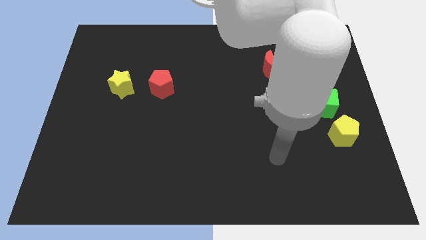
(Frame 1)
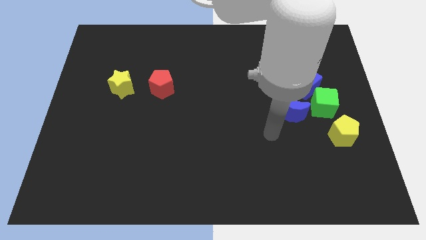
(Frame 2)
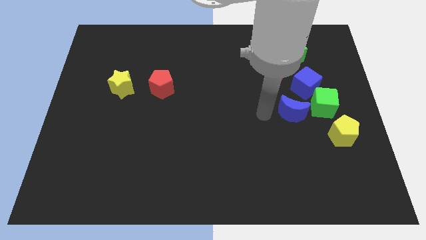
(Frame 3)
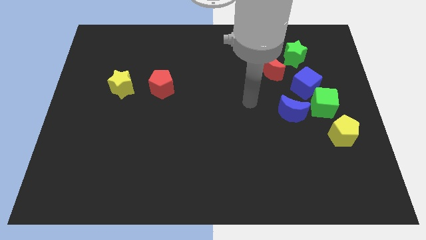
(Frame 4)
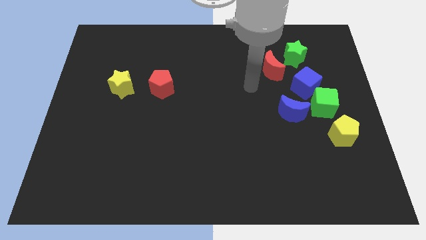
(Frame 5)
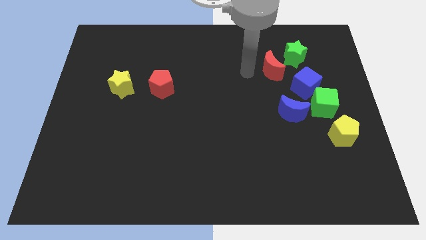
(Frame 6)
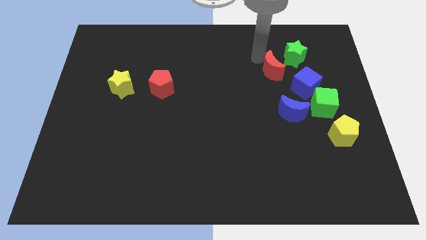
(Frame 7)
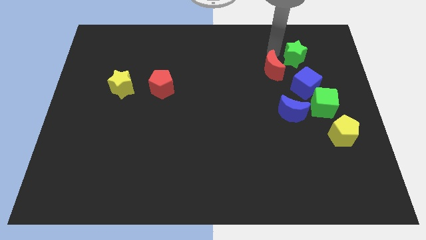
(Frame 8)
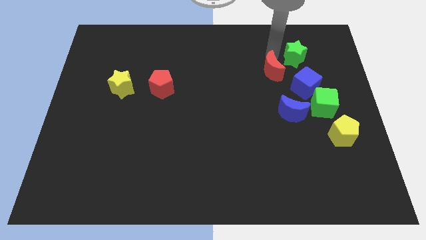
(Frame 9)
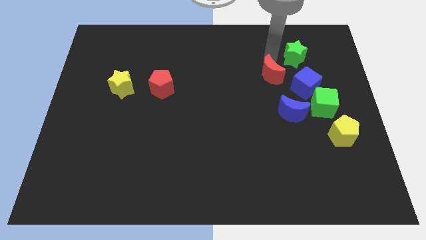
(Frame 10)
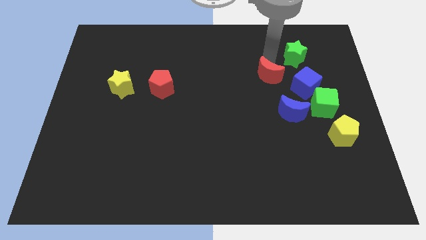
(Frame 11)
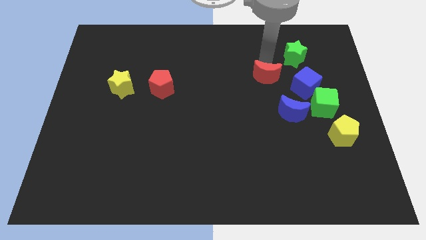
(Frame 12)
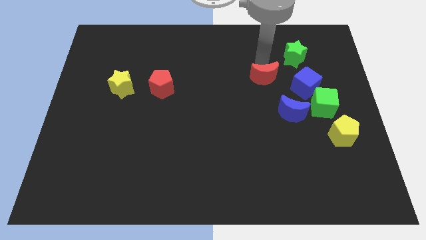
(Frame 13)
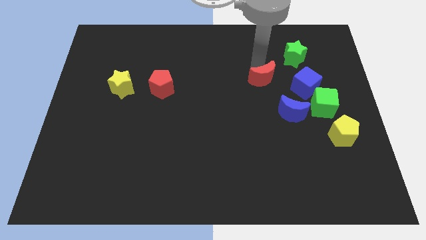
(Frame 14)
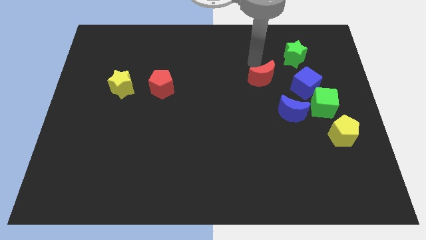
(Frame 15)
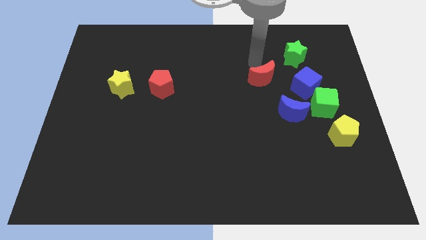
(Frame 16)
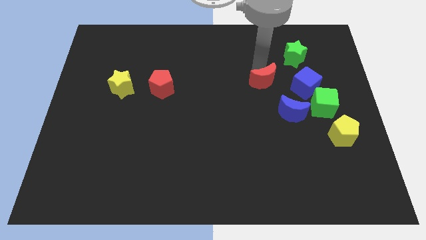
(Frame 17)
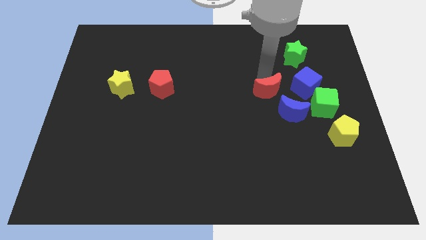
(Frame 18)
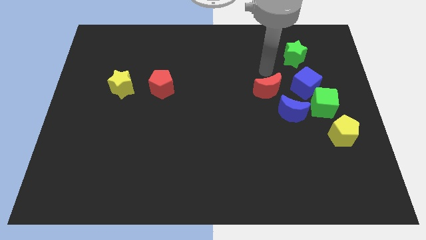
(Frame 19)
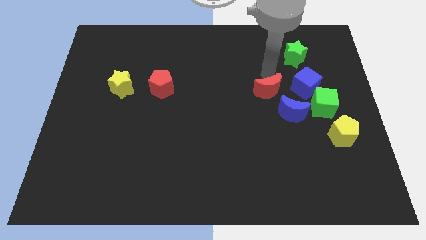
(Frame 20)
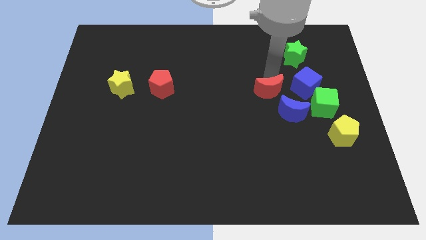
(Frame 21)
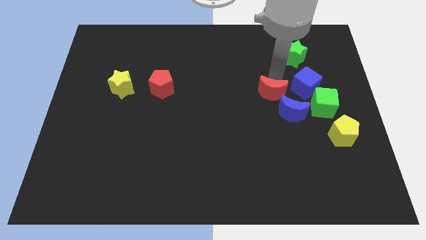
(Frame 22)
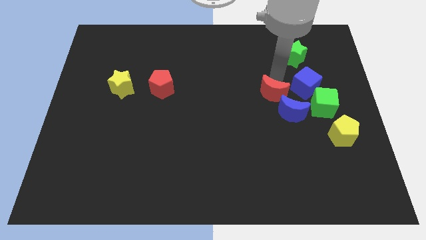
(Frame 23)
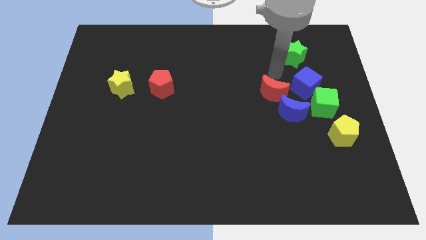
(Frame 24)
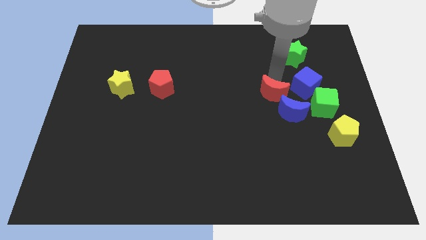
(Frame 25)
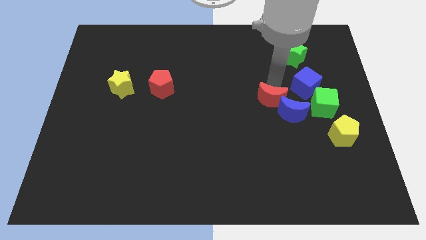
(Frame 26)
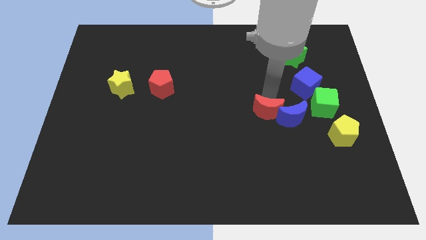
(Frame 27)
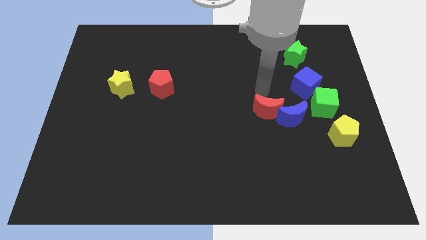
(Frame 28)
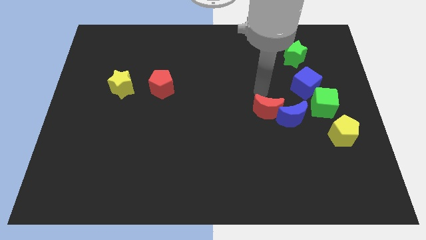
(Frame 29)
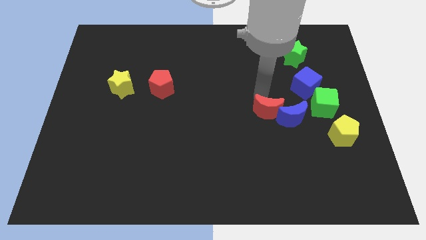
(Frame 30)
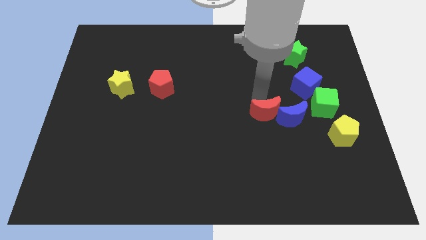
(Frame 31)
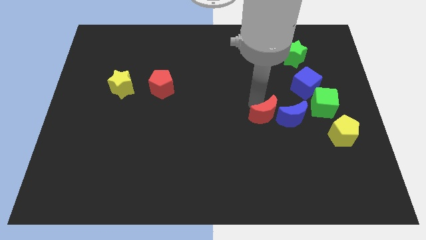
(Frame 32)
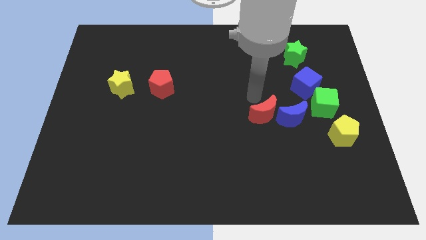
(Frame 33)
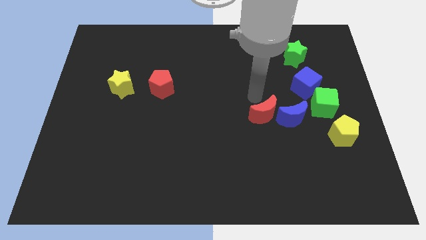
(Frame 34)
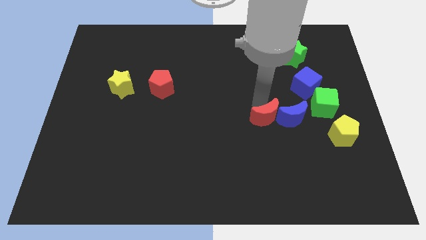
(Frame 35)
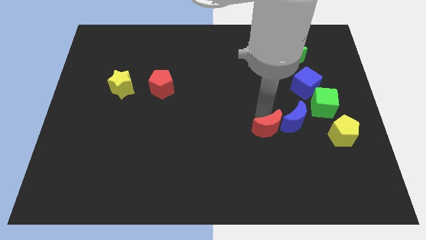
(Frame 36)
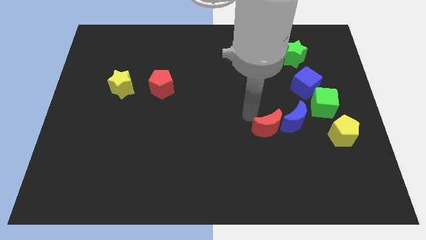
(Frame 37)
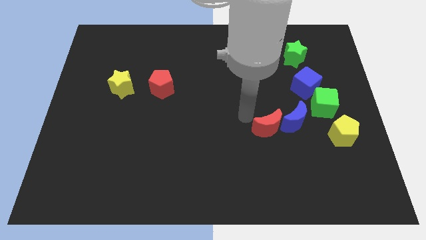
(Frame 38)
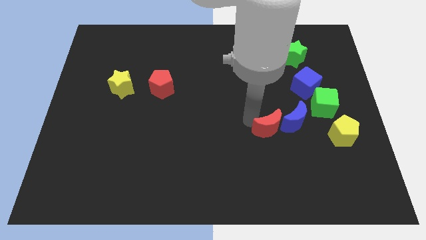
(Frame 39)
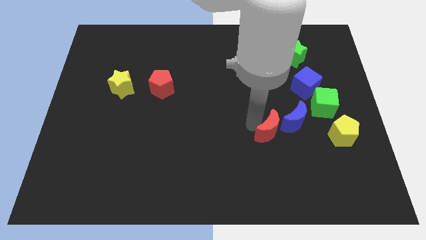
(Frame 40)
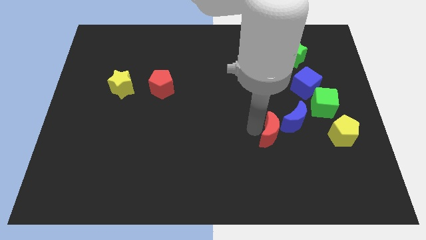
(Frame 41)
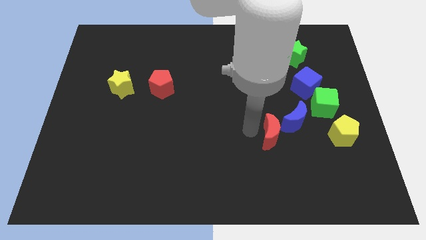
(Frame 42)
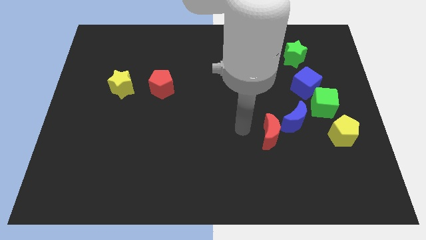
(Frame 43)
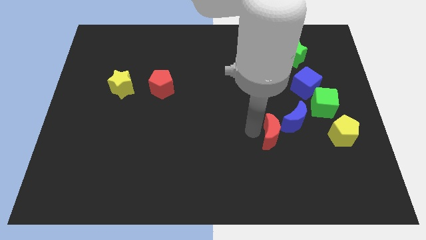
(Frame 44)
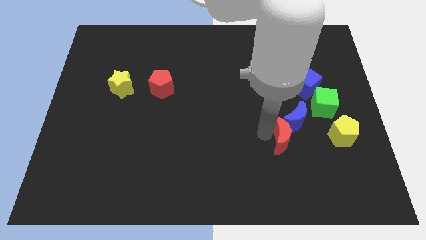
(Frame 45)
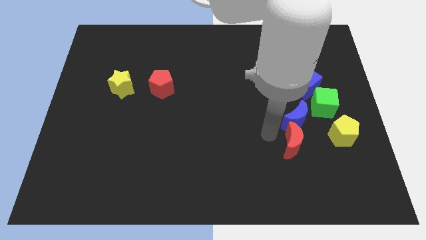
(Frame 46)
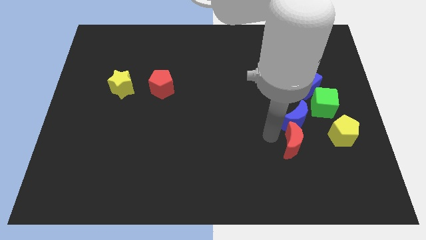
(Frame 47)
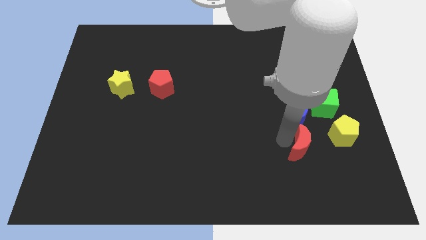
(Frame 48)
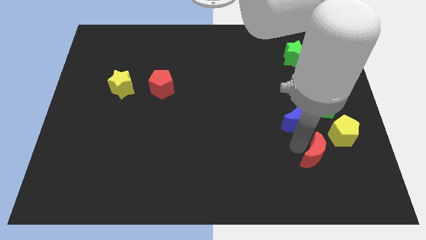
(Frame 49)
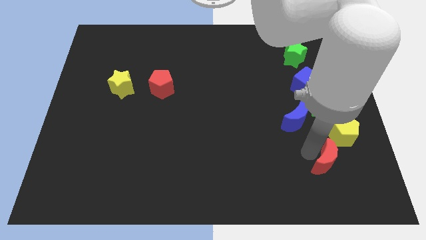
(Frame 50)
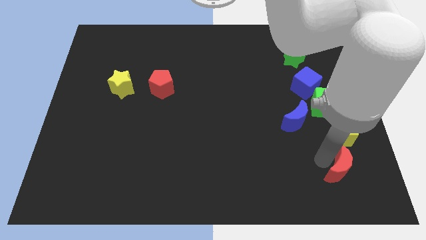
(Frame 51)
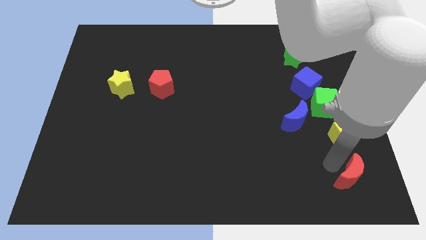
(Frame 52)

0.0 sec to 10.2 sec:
put the red moon to the bottom right corner
